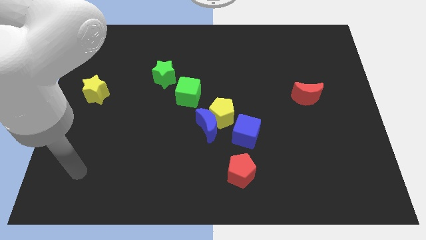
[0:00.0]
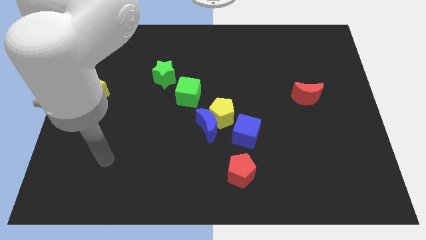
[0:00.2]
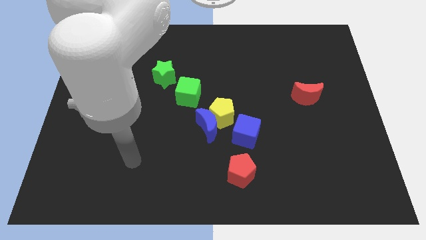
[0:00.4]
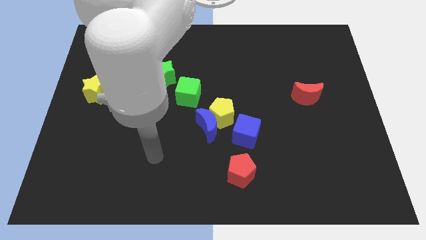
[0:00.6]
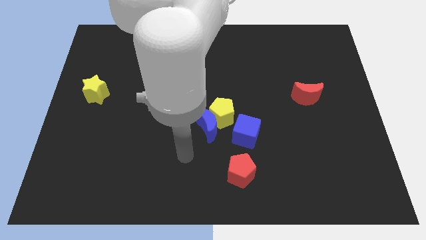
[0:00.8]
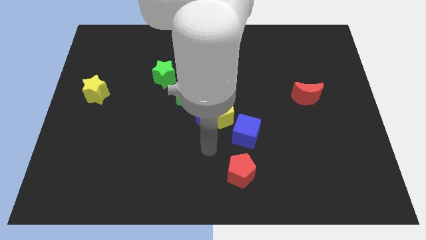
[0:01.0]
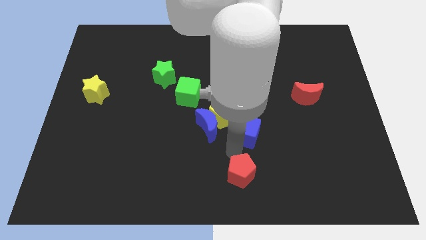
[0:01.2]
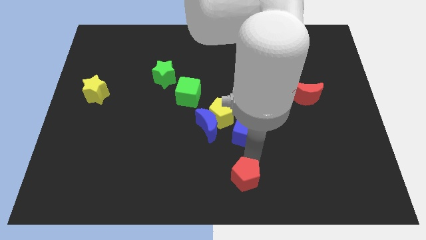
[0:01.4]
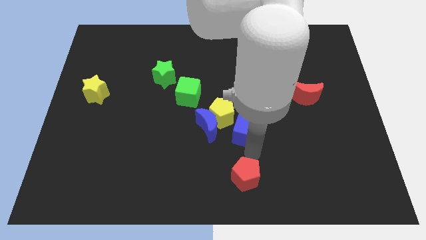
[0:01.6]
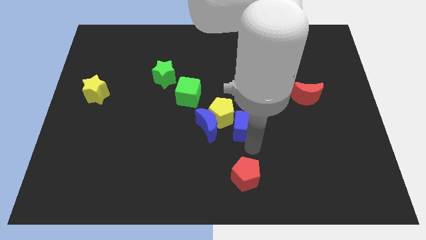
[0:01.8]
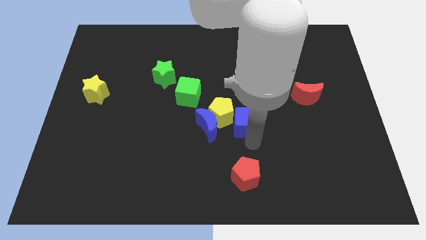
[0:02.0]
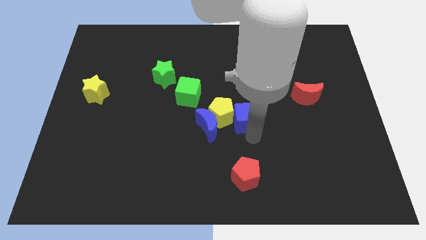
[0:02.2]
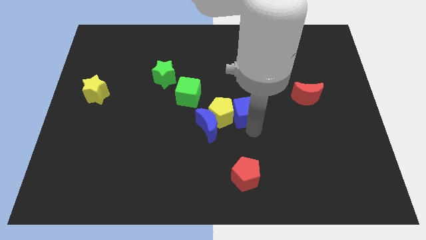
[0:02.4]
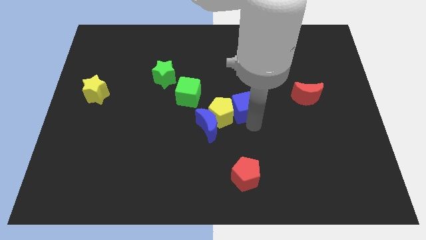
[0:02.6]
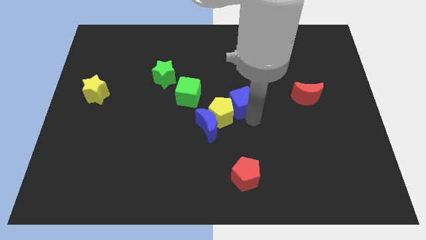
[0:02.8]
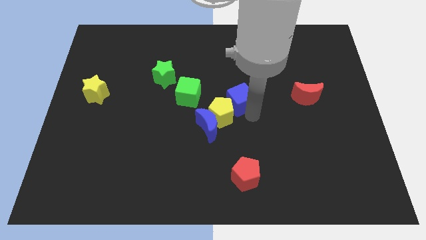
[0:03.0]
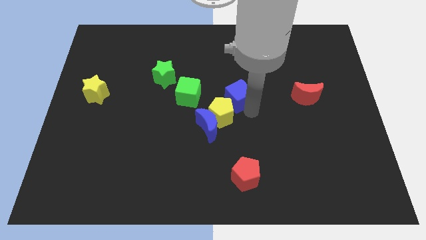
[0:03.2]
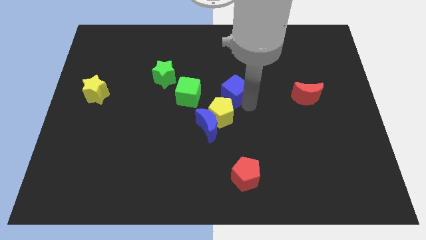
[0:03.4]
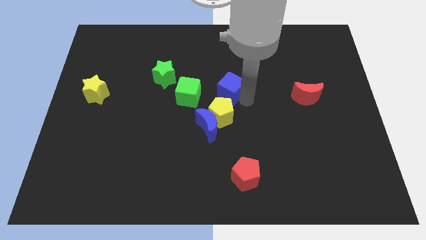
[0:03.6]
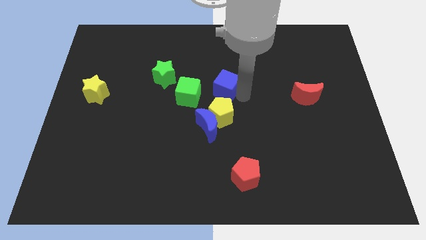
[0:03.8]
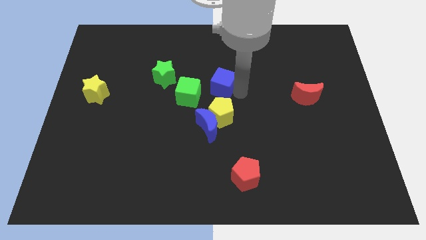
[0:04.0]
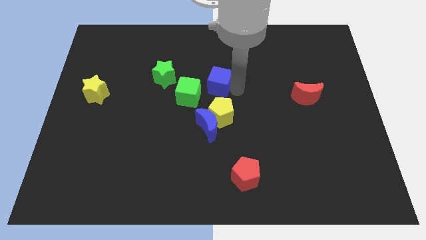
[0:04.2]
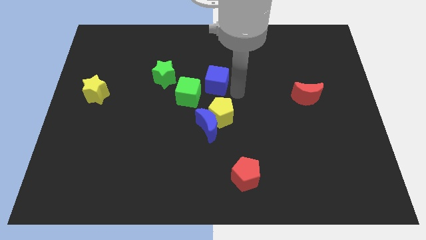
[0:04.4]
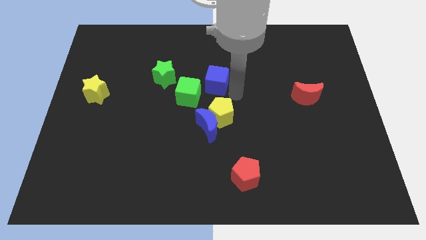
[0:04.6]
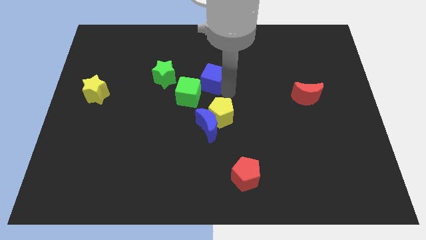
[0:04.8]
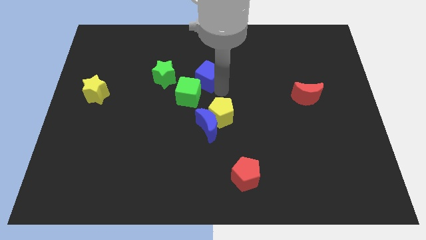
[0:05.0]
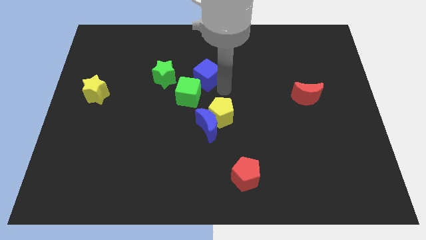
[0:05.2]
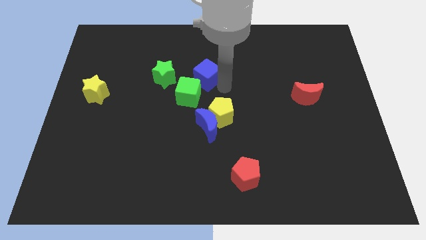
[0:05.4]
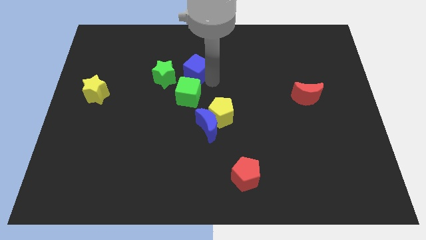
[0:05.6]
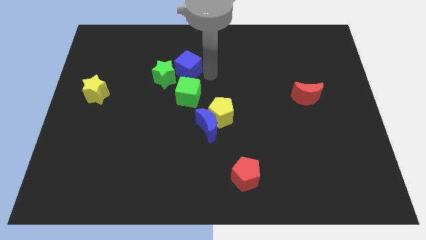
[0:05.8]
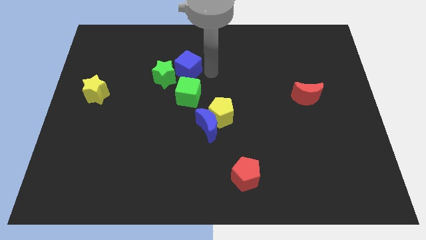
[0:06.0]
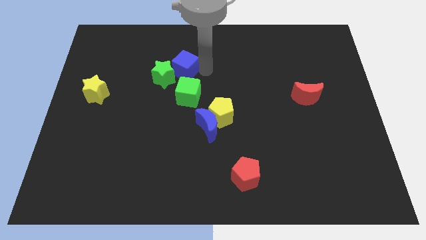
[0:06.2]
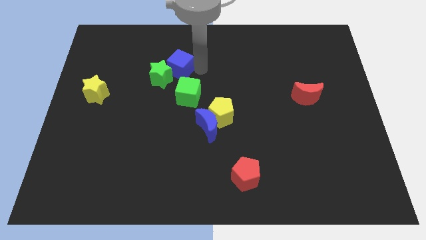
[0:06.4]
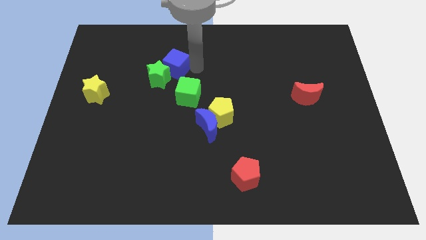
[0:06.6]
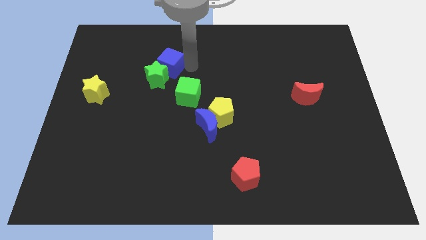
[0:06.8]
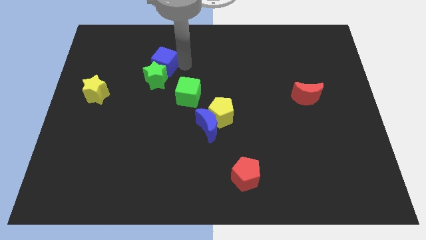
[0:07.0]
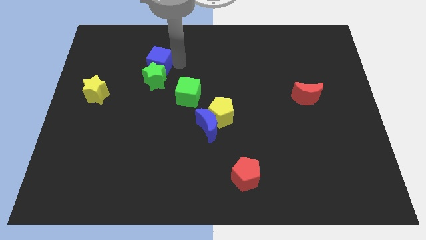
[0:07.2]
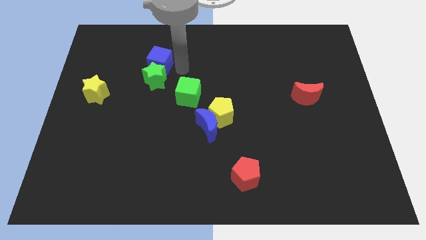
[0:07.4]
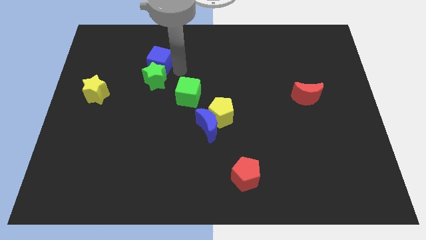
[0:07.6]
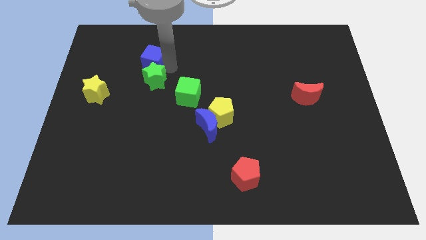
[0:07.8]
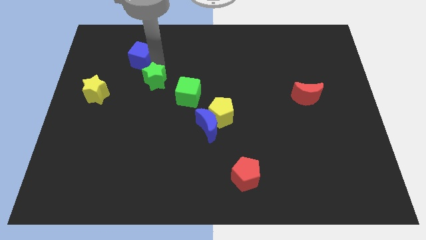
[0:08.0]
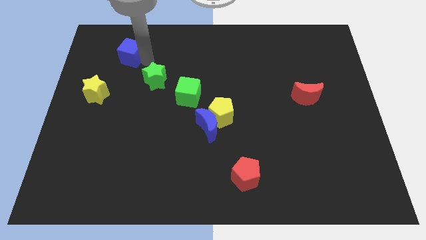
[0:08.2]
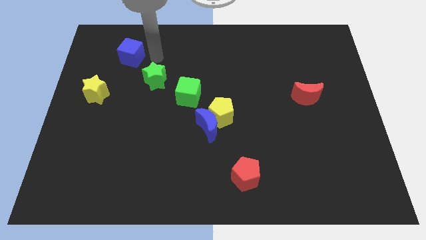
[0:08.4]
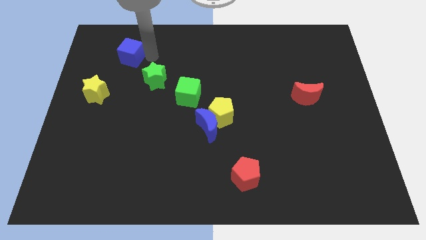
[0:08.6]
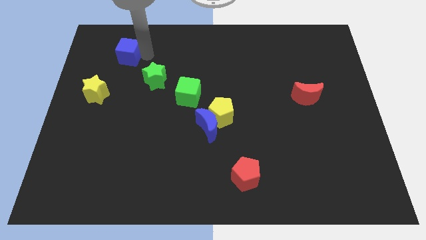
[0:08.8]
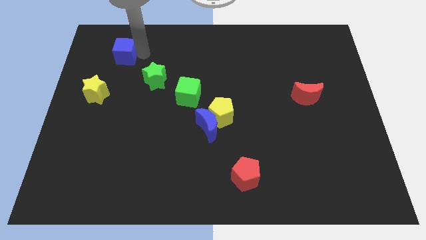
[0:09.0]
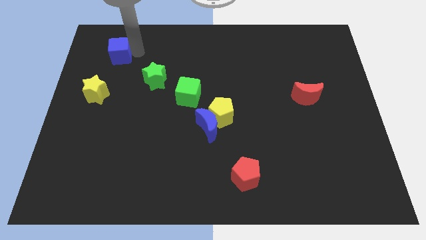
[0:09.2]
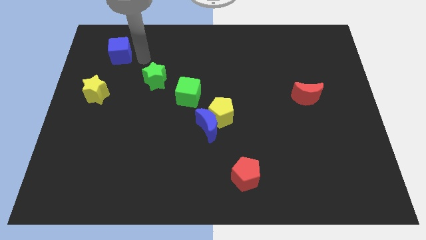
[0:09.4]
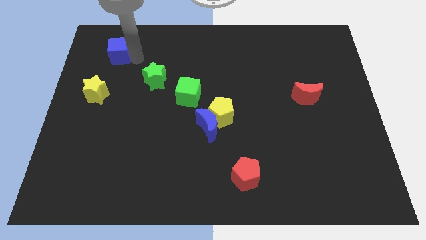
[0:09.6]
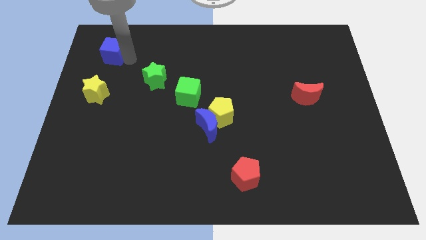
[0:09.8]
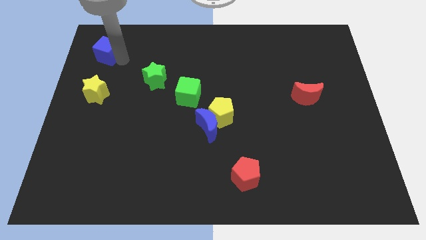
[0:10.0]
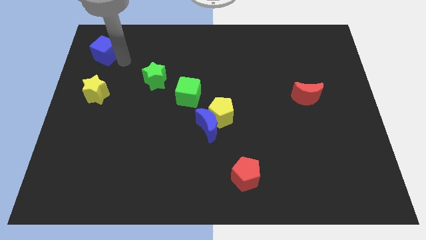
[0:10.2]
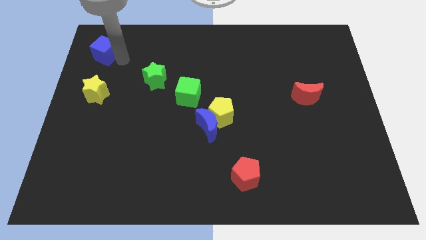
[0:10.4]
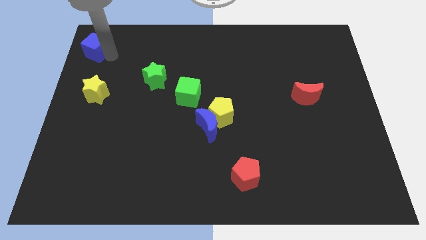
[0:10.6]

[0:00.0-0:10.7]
slide the blue cube to the top left
